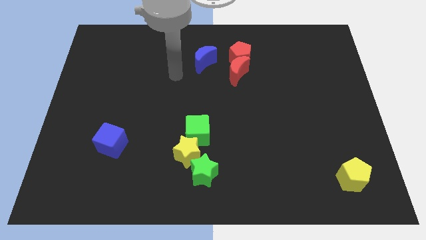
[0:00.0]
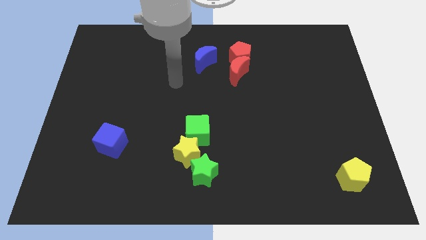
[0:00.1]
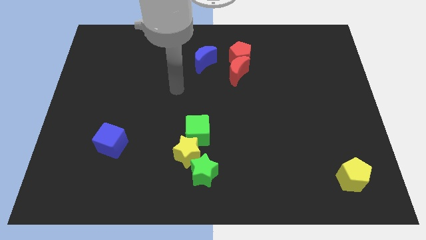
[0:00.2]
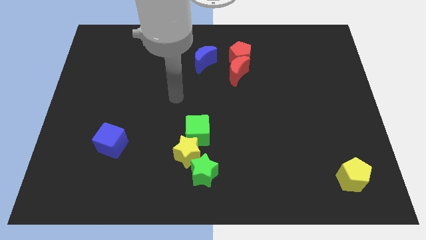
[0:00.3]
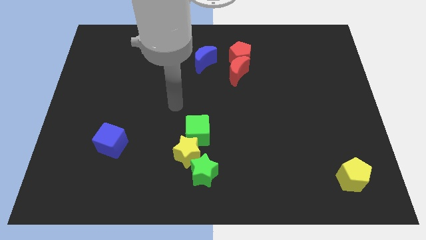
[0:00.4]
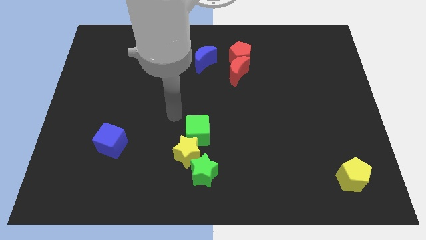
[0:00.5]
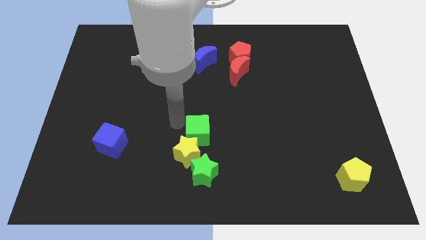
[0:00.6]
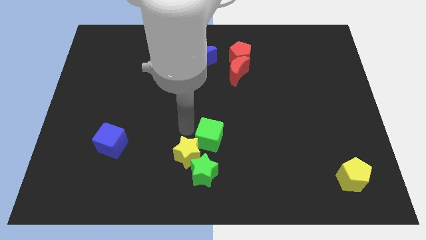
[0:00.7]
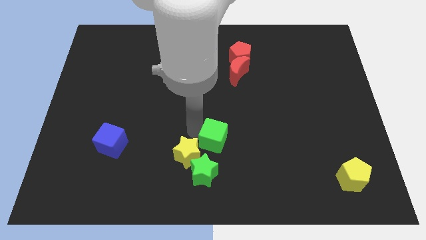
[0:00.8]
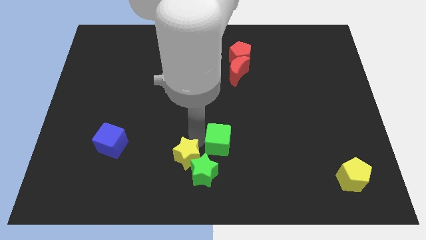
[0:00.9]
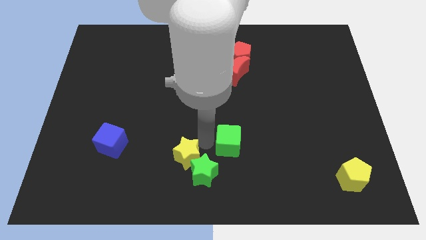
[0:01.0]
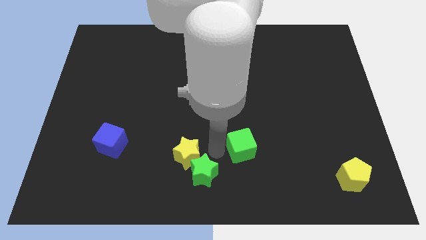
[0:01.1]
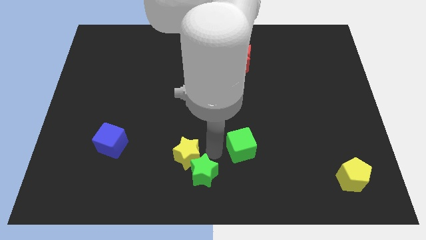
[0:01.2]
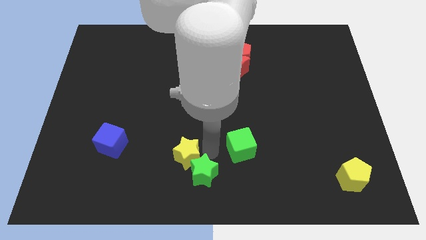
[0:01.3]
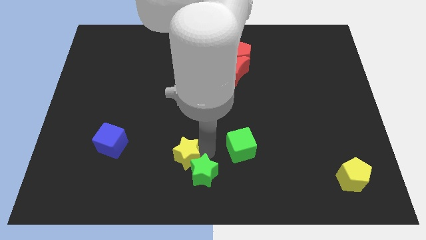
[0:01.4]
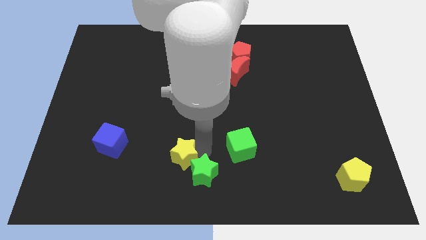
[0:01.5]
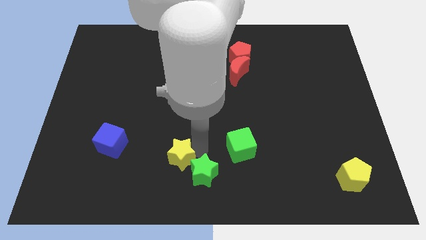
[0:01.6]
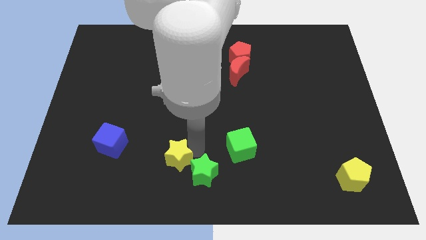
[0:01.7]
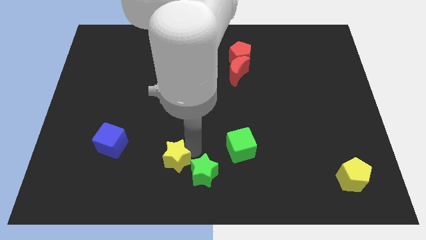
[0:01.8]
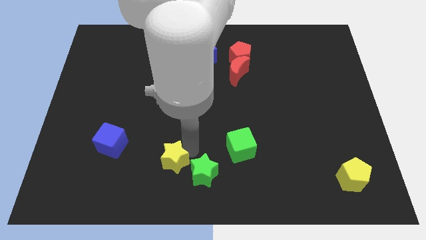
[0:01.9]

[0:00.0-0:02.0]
move the yellow star away from the green star and green cube

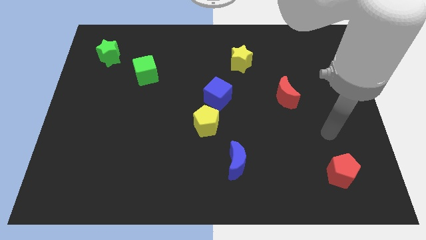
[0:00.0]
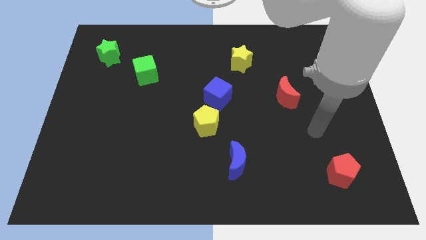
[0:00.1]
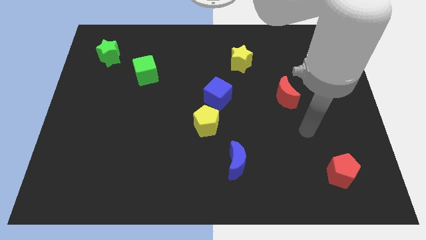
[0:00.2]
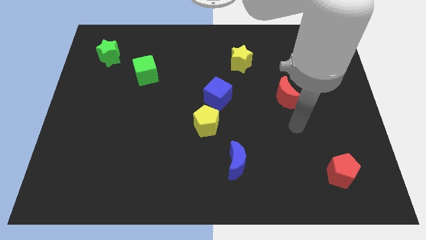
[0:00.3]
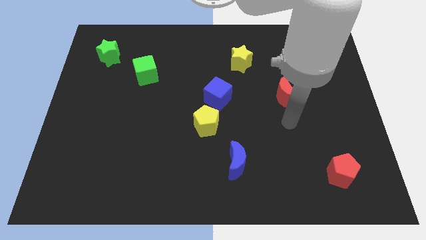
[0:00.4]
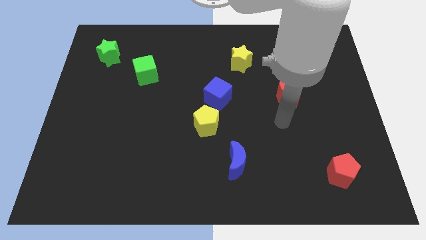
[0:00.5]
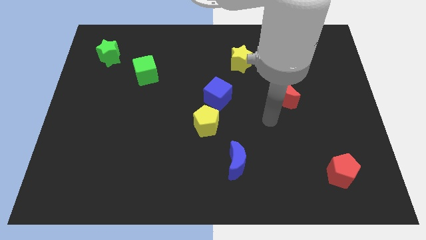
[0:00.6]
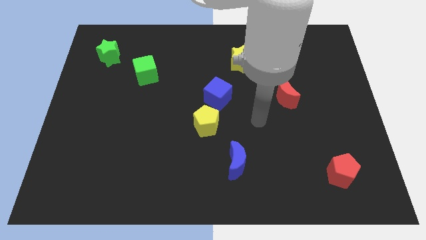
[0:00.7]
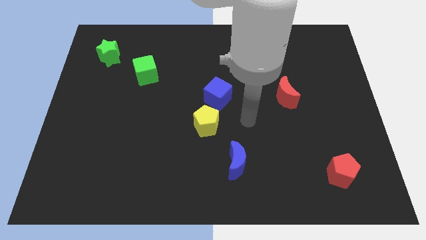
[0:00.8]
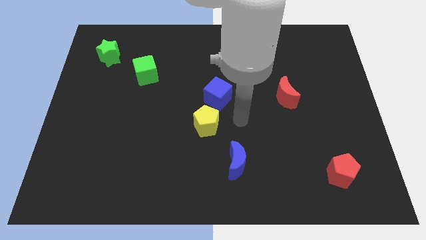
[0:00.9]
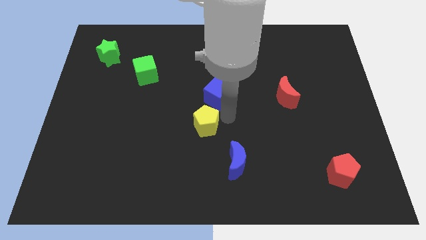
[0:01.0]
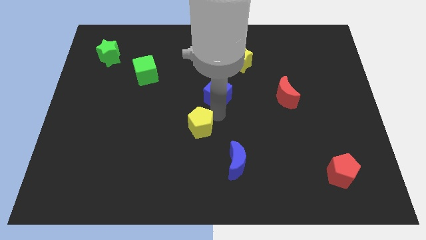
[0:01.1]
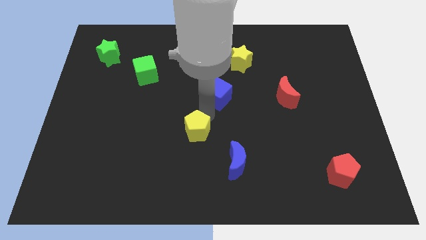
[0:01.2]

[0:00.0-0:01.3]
pull the blue cube apart from the yellow pentagon

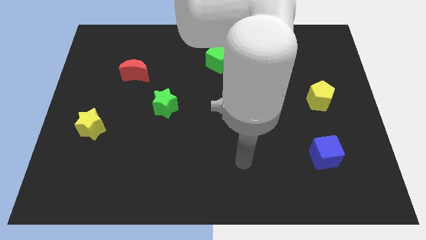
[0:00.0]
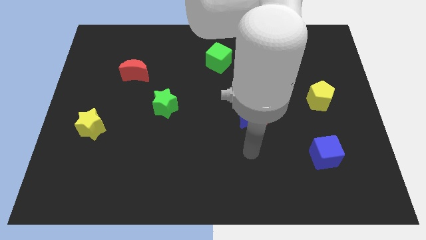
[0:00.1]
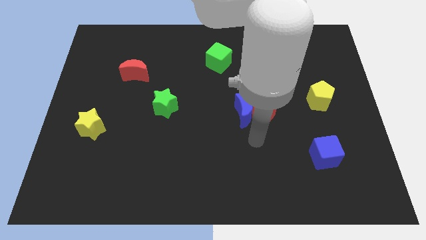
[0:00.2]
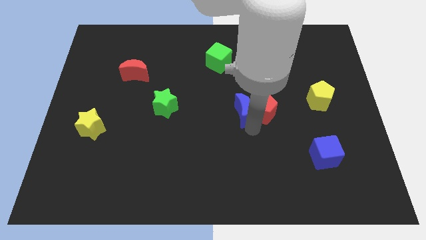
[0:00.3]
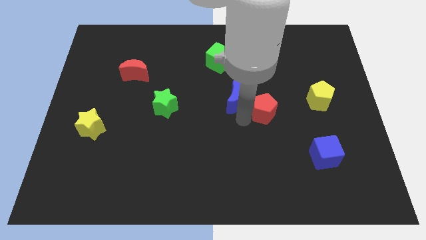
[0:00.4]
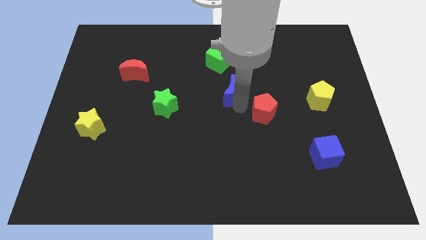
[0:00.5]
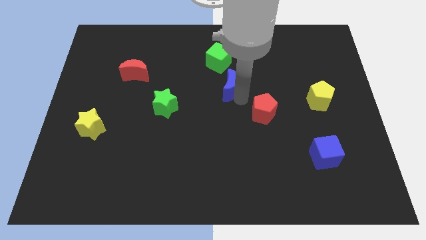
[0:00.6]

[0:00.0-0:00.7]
pull the red pentagon apart from the blue moon

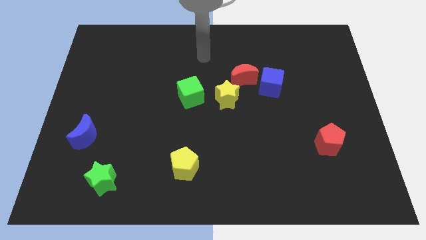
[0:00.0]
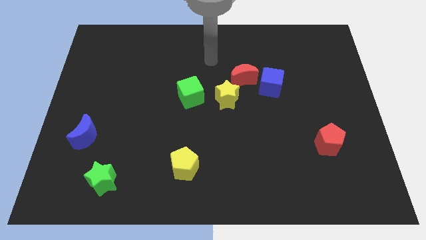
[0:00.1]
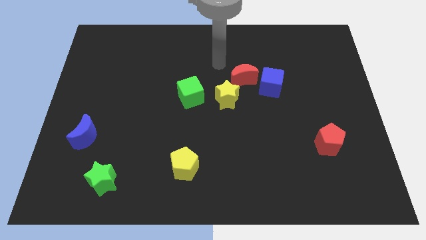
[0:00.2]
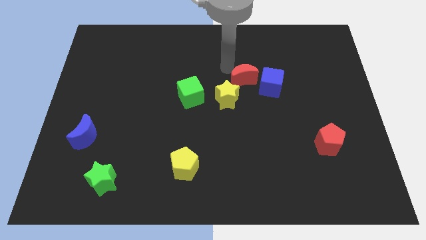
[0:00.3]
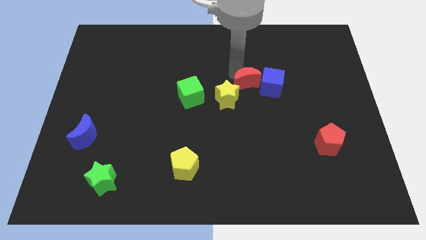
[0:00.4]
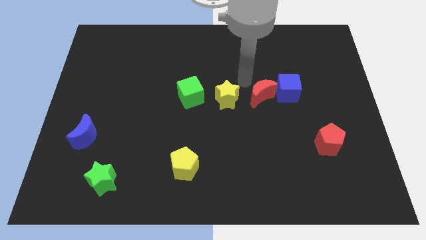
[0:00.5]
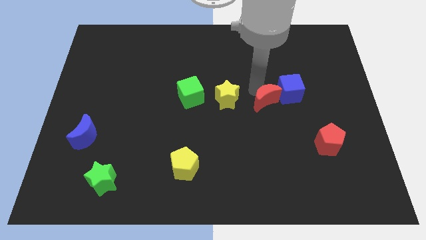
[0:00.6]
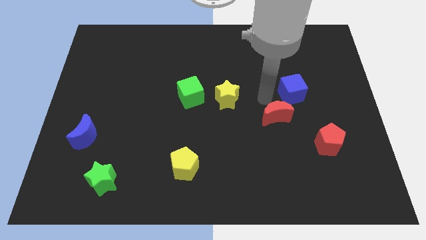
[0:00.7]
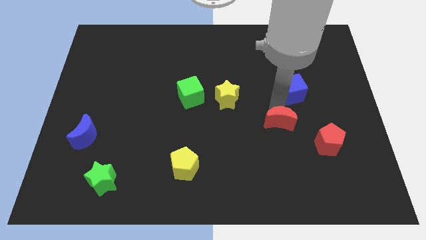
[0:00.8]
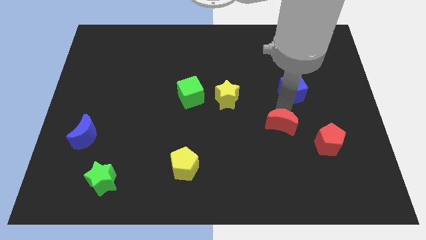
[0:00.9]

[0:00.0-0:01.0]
separate the blue cube from the red moon

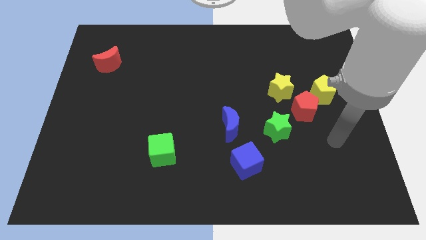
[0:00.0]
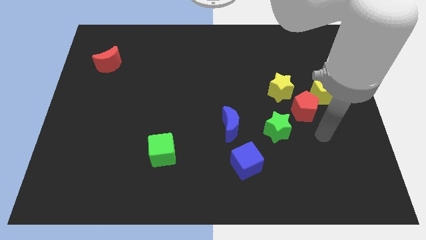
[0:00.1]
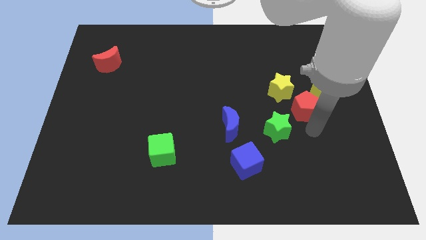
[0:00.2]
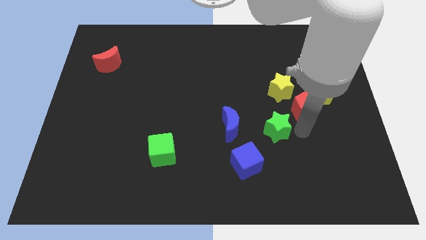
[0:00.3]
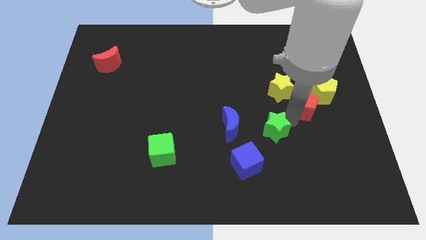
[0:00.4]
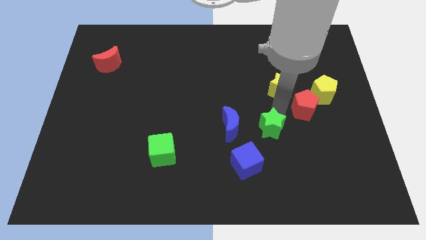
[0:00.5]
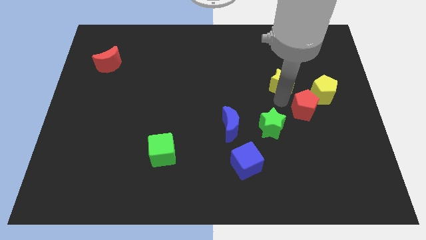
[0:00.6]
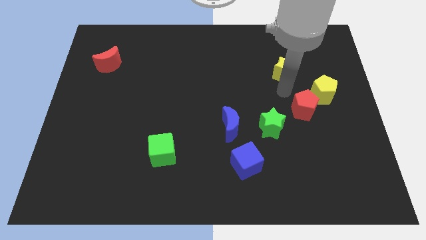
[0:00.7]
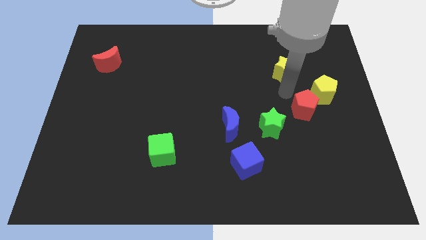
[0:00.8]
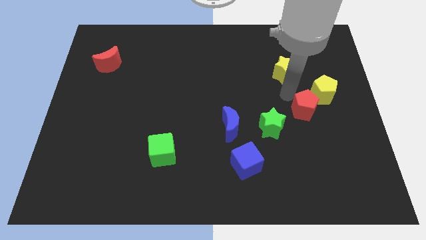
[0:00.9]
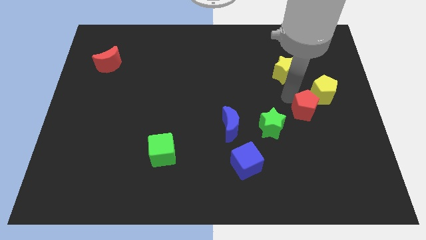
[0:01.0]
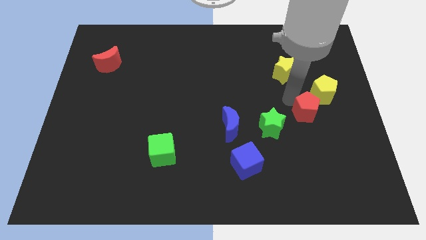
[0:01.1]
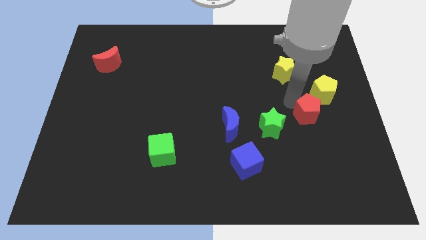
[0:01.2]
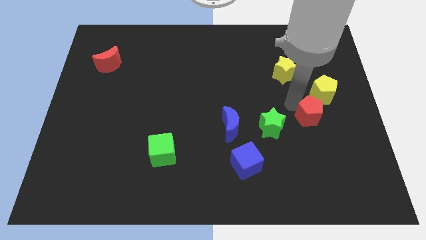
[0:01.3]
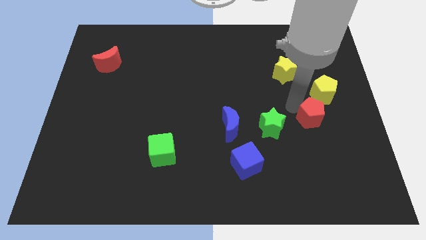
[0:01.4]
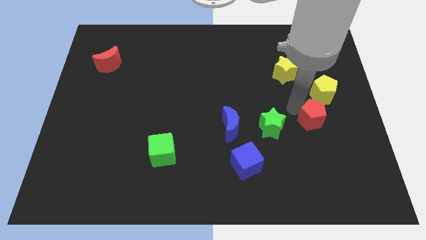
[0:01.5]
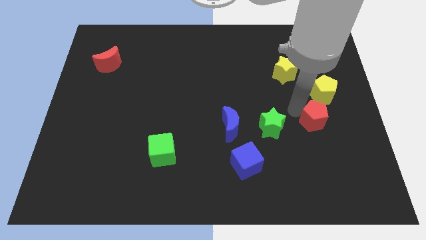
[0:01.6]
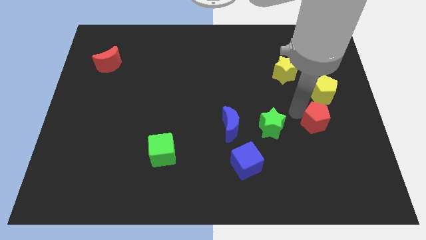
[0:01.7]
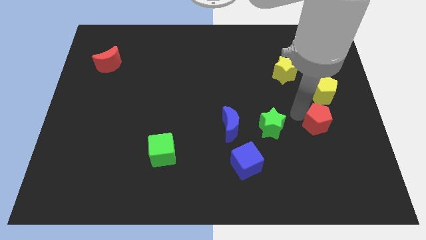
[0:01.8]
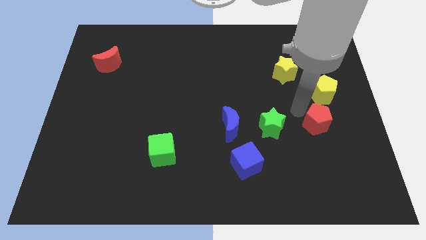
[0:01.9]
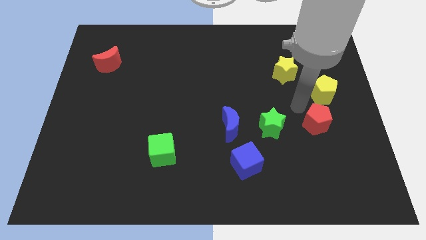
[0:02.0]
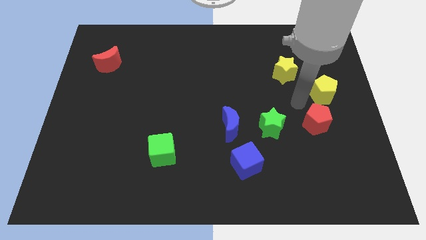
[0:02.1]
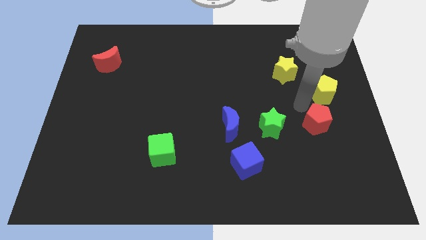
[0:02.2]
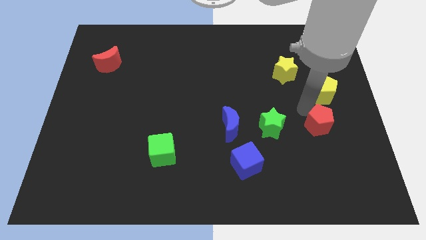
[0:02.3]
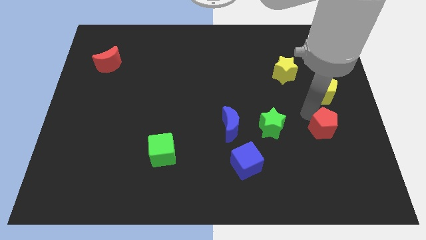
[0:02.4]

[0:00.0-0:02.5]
pull the red pentagon apart from the group

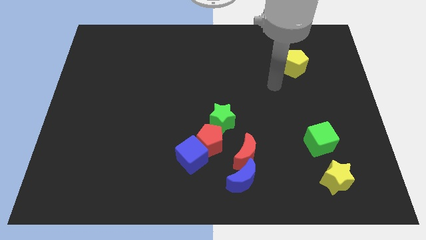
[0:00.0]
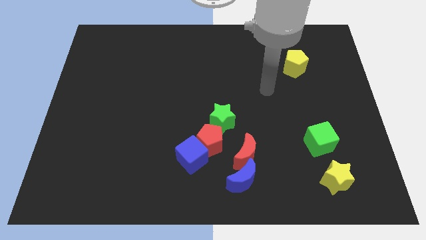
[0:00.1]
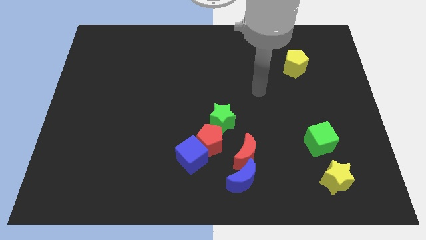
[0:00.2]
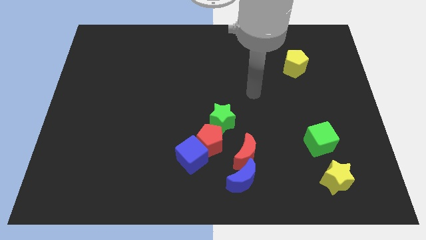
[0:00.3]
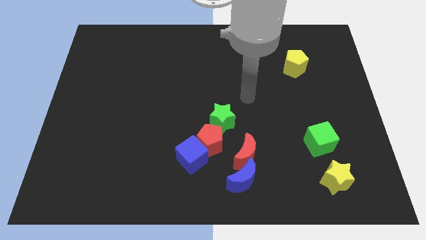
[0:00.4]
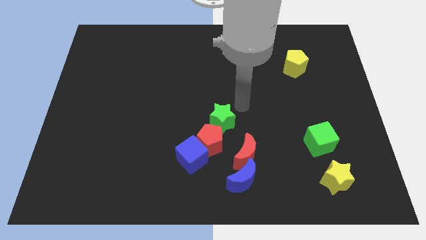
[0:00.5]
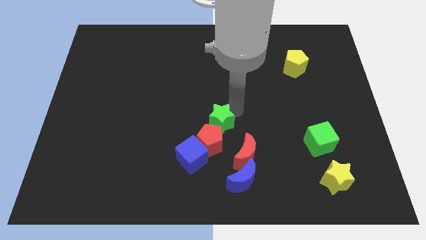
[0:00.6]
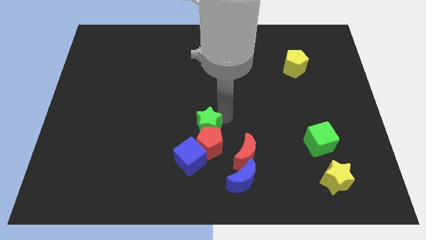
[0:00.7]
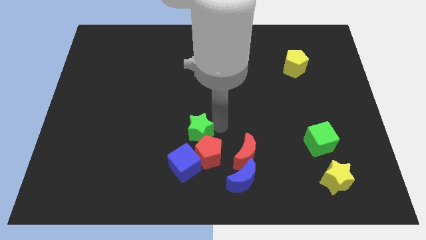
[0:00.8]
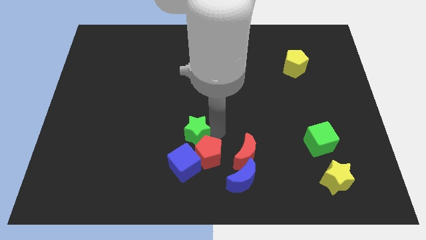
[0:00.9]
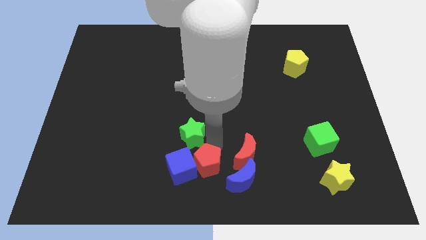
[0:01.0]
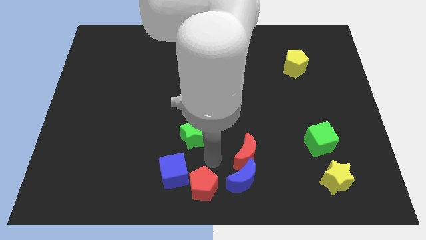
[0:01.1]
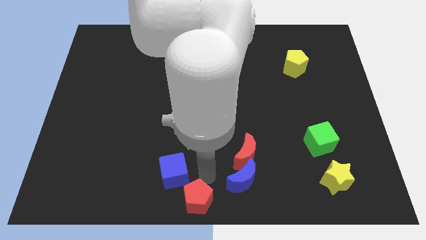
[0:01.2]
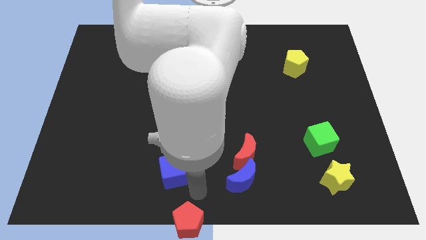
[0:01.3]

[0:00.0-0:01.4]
move the blue cube away from the red pentagon

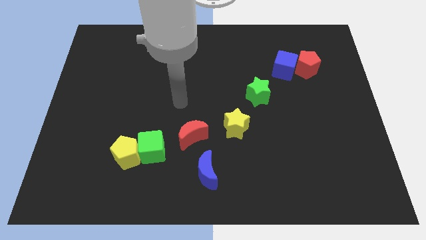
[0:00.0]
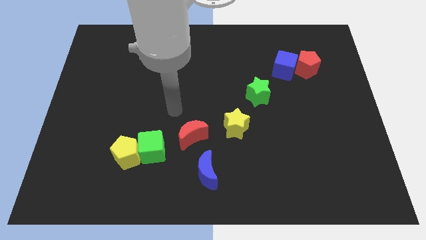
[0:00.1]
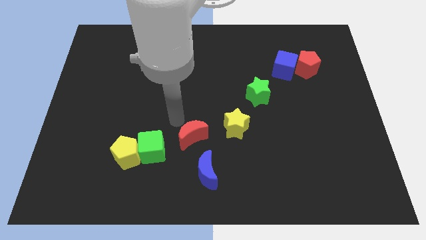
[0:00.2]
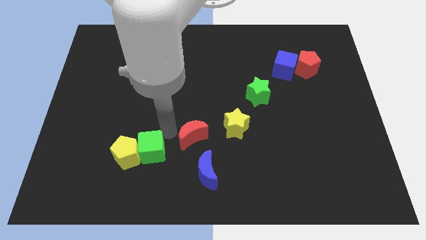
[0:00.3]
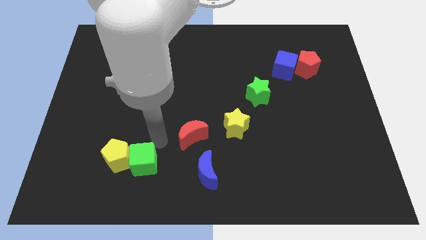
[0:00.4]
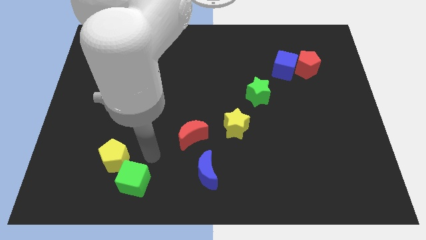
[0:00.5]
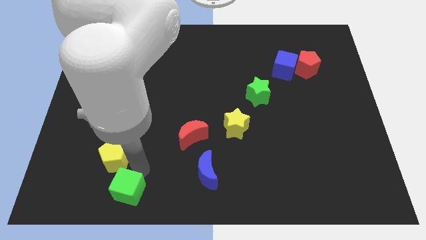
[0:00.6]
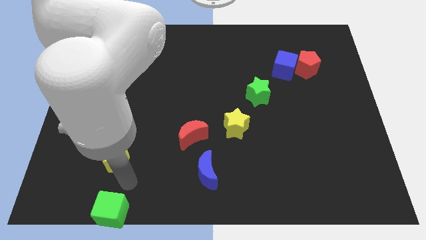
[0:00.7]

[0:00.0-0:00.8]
pull the yellow pentagon apart from the green cube
